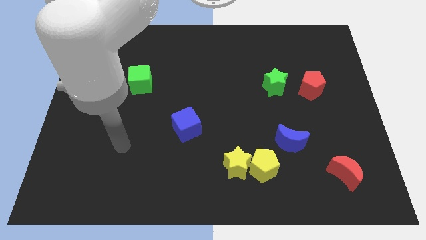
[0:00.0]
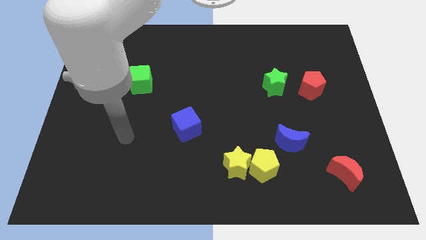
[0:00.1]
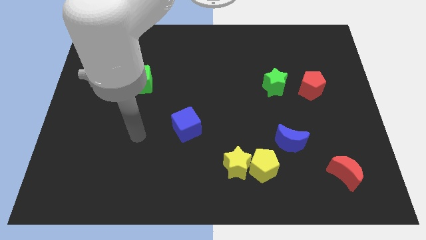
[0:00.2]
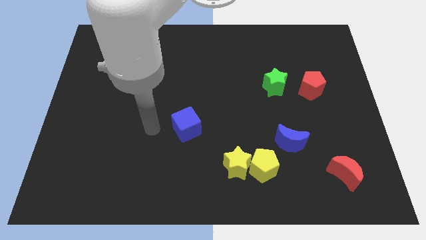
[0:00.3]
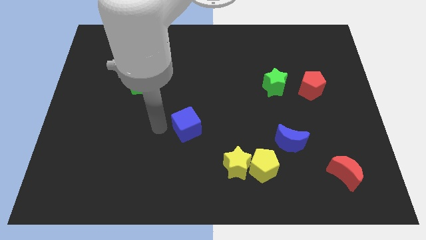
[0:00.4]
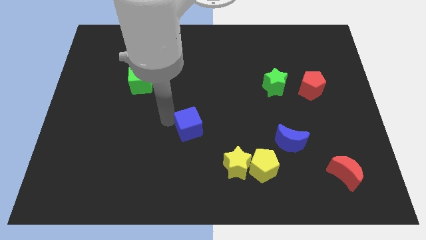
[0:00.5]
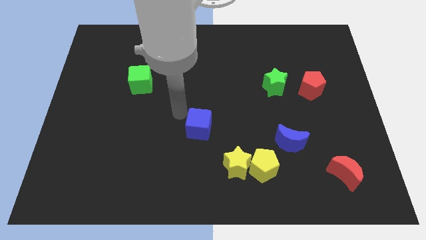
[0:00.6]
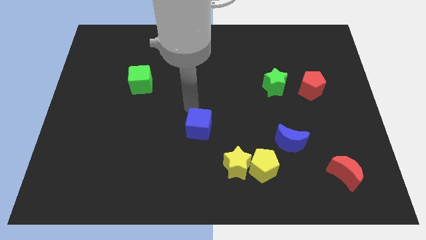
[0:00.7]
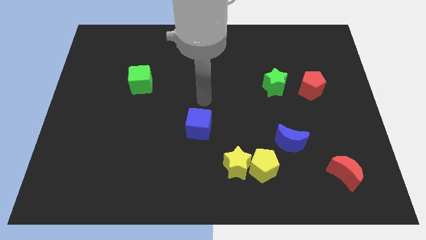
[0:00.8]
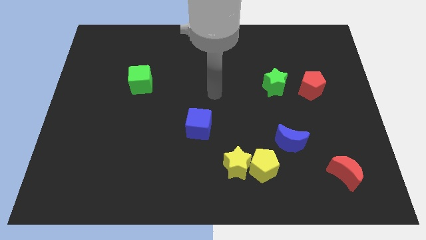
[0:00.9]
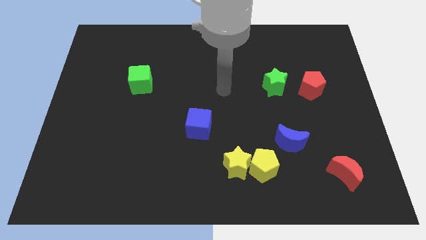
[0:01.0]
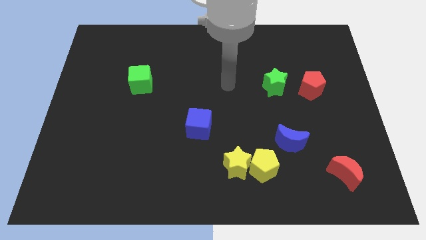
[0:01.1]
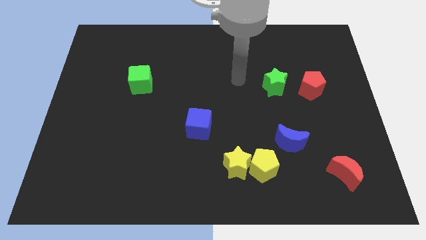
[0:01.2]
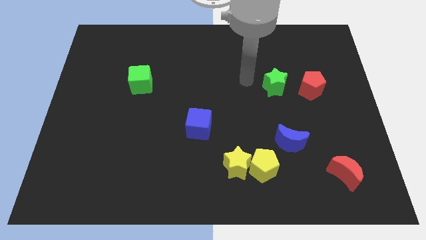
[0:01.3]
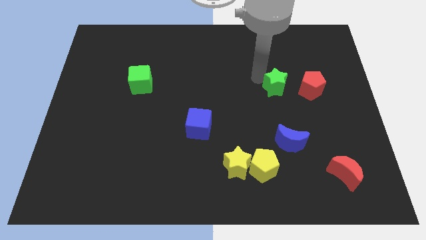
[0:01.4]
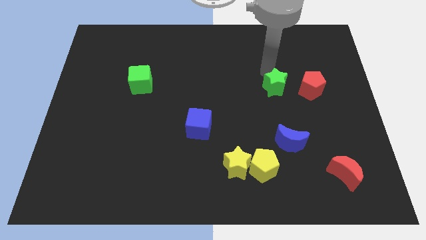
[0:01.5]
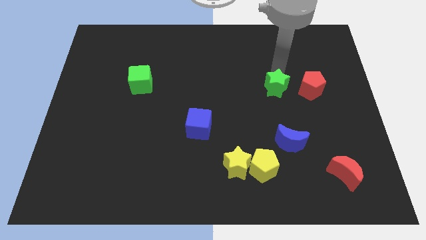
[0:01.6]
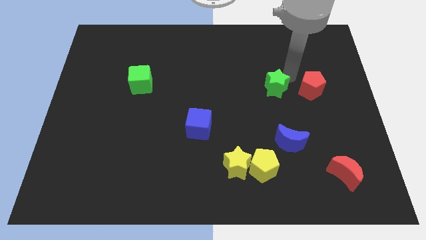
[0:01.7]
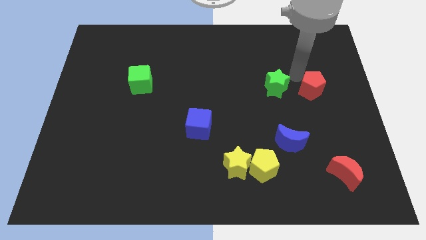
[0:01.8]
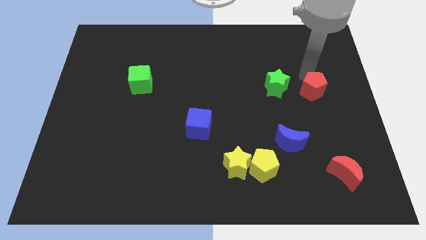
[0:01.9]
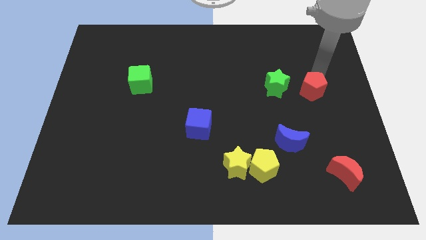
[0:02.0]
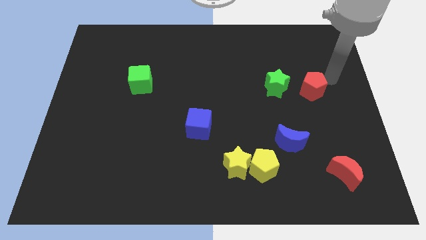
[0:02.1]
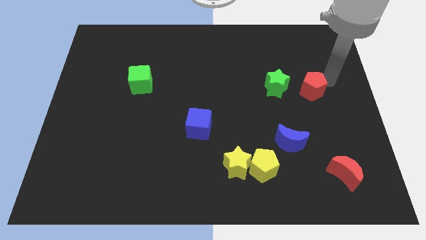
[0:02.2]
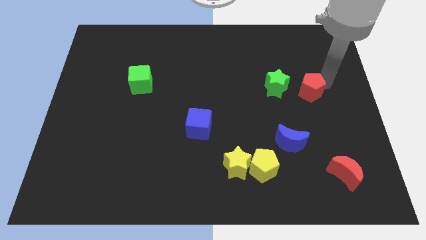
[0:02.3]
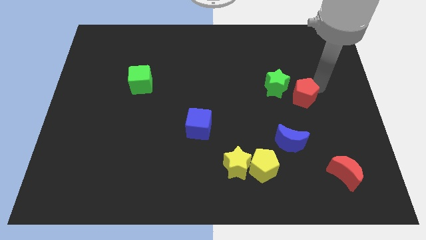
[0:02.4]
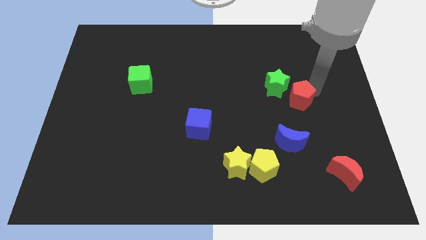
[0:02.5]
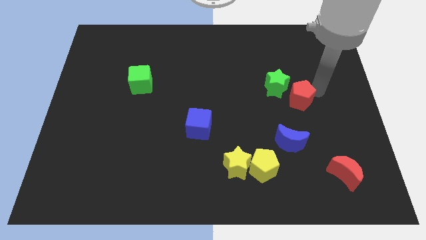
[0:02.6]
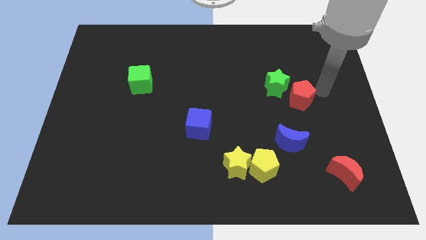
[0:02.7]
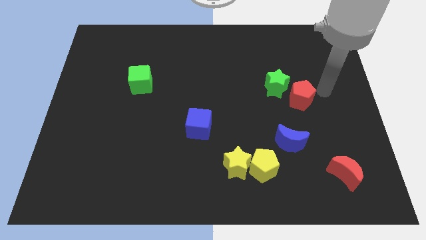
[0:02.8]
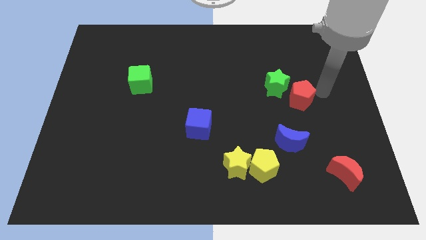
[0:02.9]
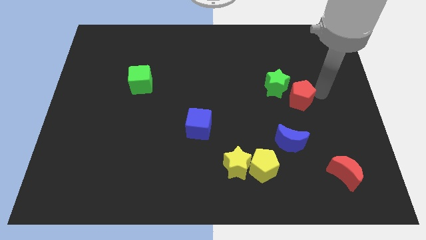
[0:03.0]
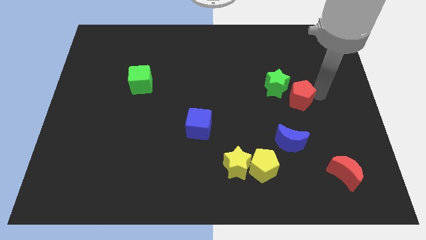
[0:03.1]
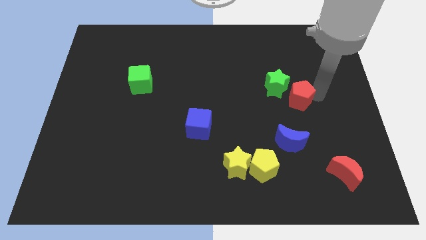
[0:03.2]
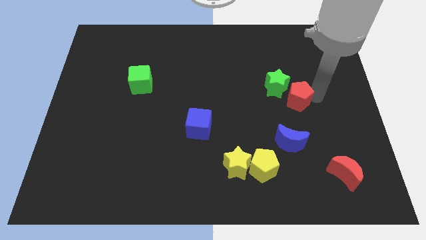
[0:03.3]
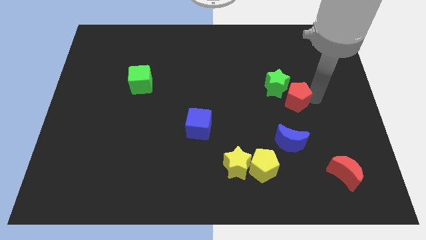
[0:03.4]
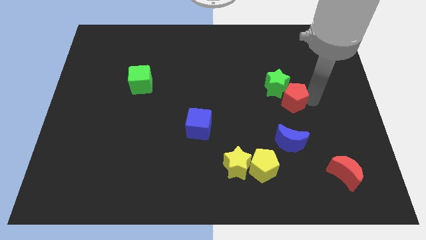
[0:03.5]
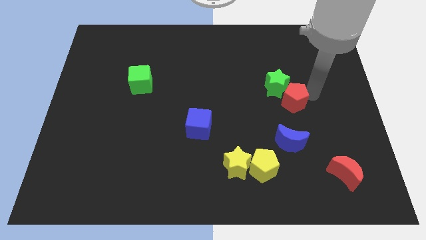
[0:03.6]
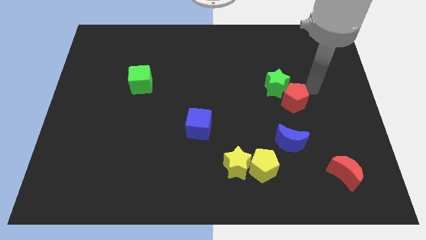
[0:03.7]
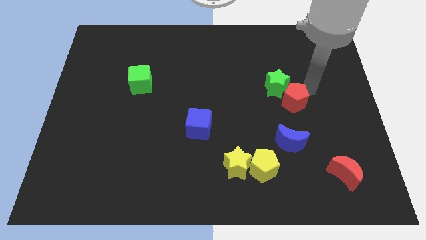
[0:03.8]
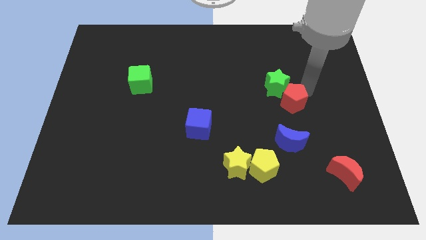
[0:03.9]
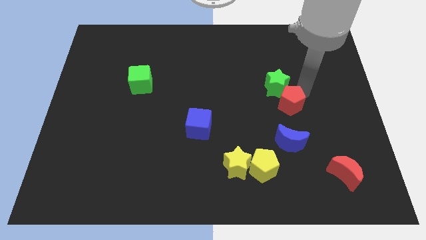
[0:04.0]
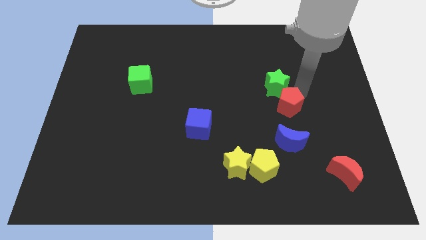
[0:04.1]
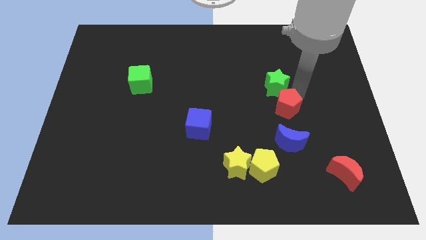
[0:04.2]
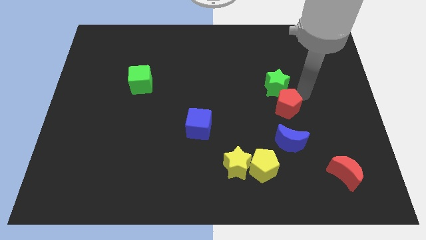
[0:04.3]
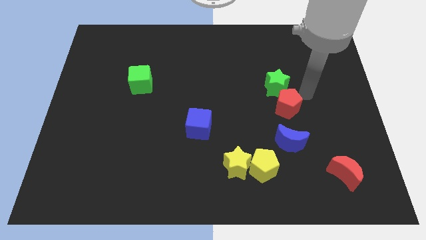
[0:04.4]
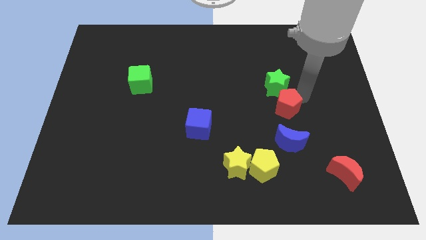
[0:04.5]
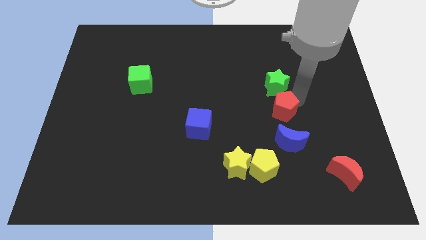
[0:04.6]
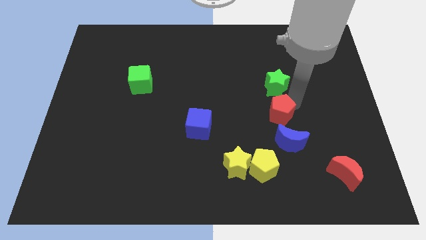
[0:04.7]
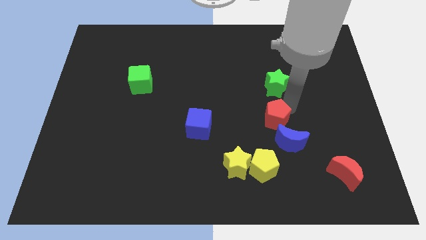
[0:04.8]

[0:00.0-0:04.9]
push the red pentagon above the yellow pentagon

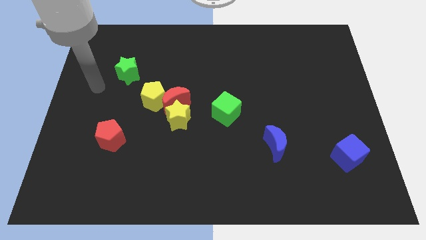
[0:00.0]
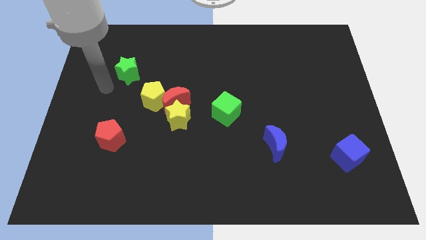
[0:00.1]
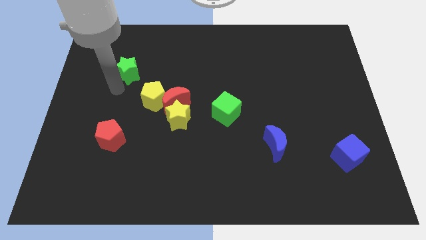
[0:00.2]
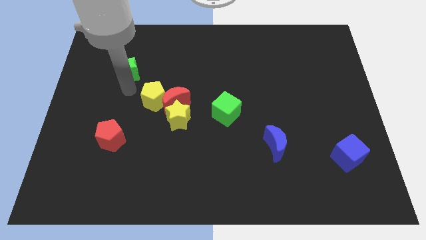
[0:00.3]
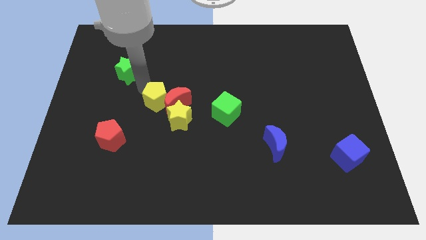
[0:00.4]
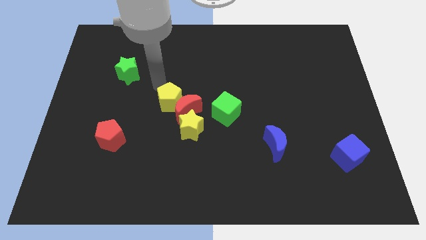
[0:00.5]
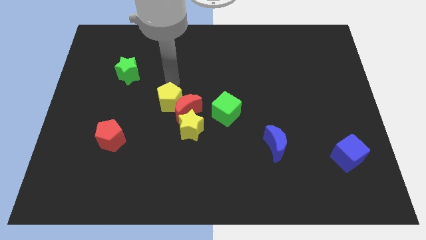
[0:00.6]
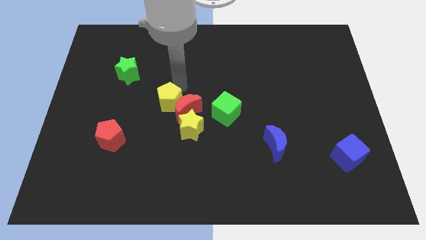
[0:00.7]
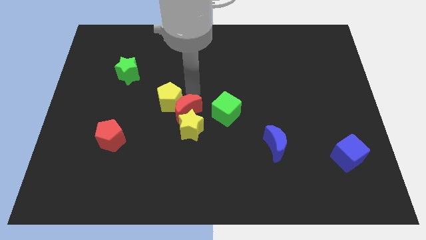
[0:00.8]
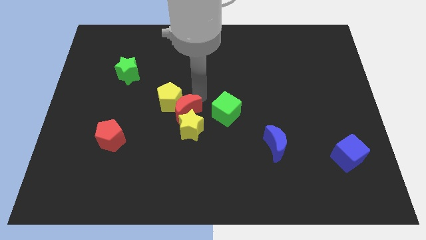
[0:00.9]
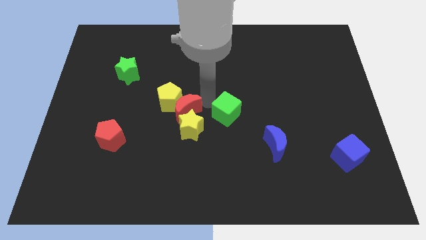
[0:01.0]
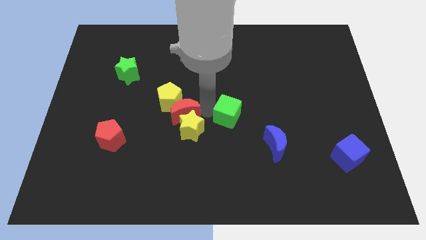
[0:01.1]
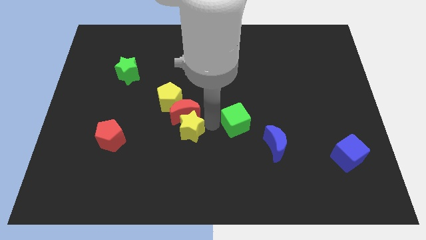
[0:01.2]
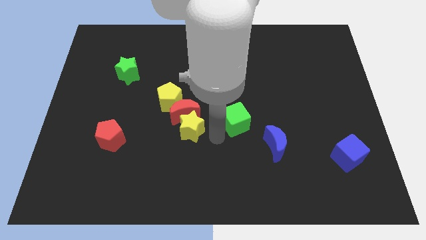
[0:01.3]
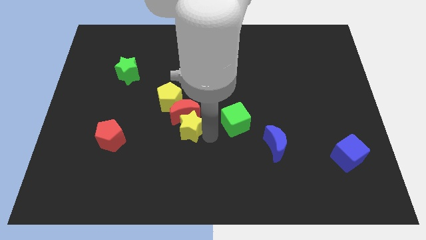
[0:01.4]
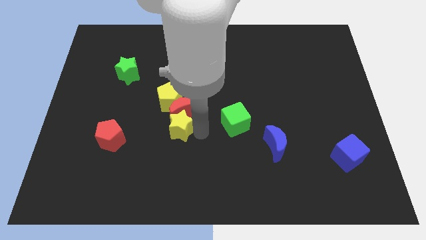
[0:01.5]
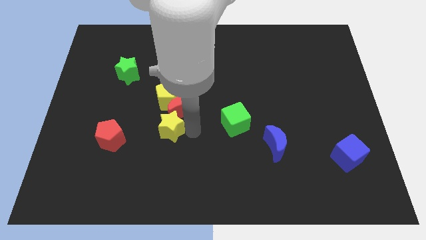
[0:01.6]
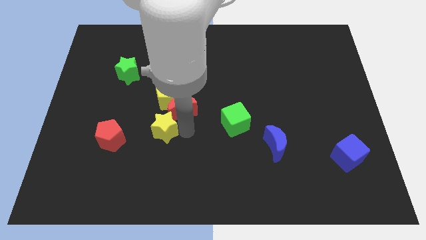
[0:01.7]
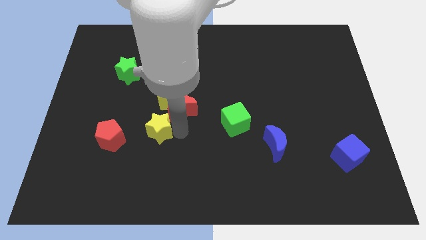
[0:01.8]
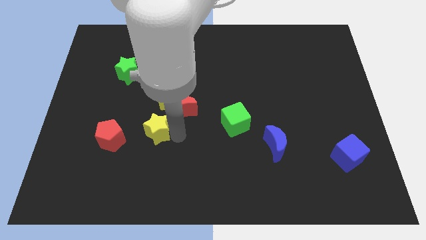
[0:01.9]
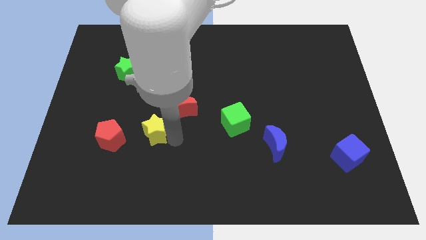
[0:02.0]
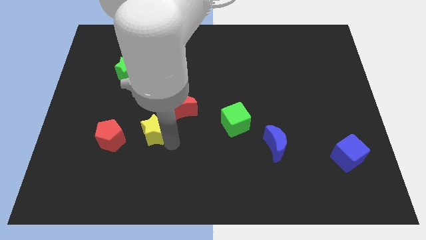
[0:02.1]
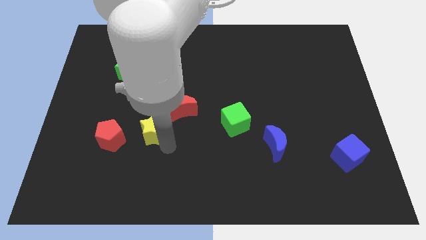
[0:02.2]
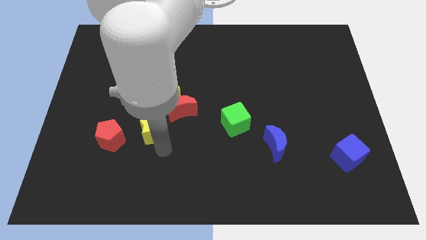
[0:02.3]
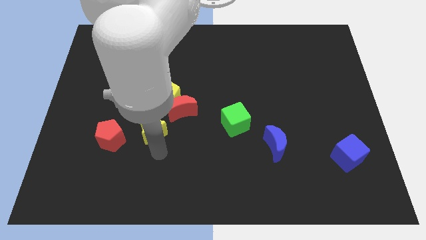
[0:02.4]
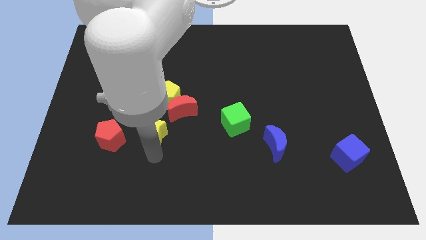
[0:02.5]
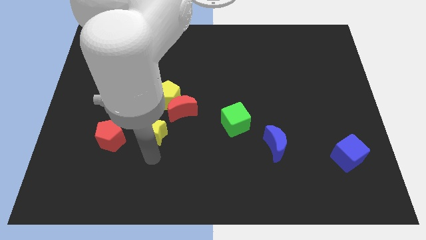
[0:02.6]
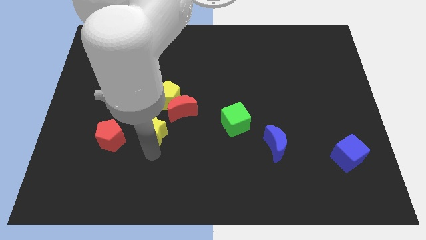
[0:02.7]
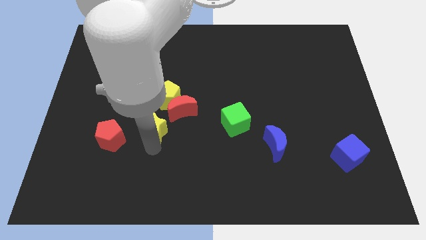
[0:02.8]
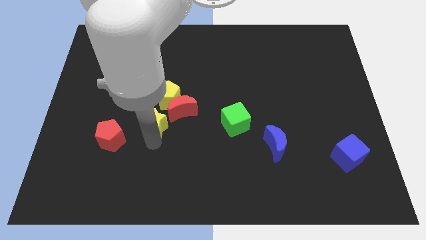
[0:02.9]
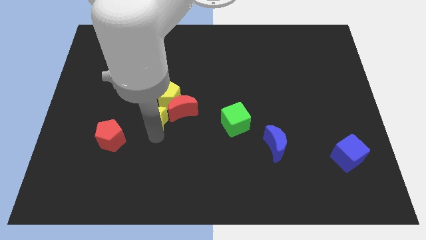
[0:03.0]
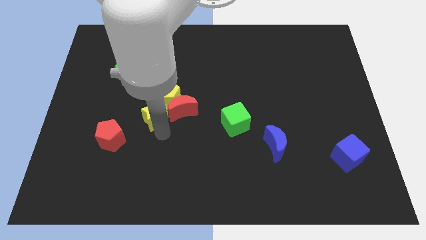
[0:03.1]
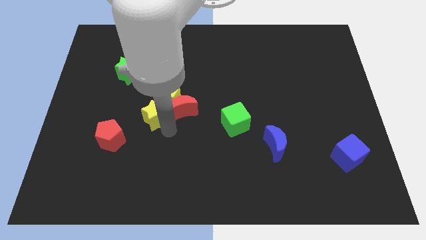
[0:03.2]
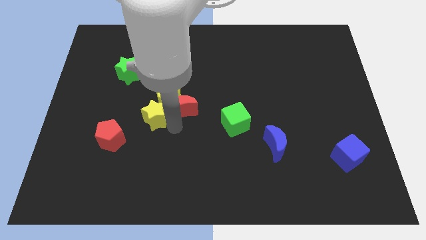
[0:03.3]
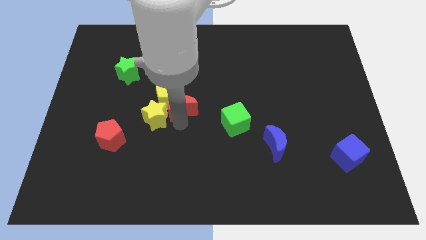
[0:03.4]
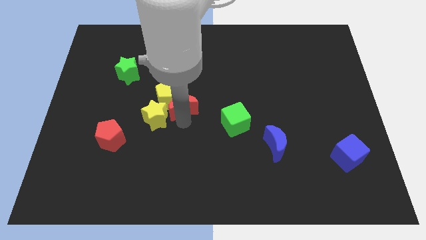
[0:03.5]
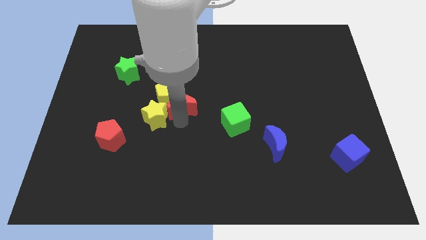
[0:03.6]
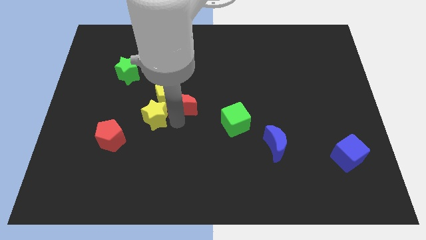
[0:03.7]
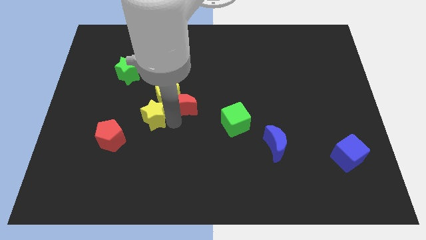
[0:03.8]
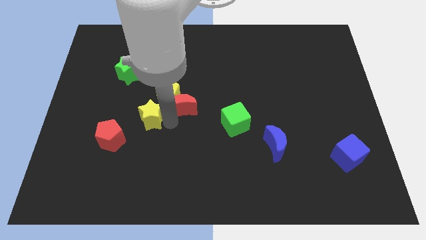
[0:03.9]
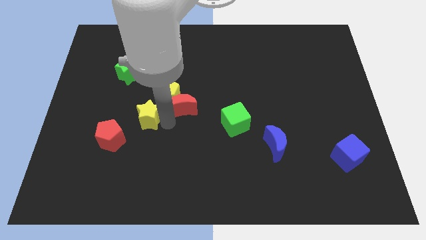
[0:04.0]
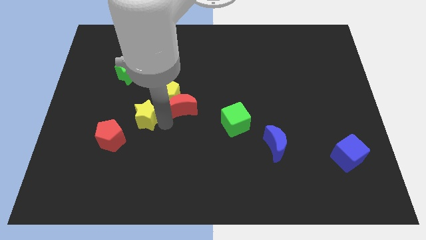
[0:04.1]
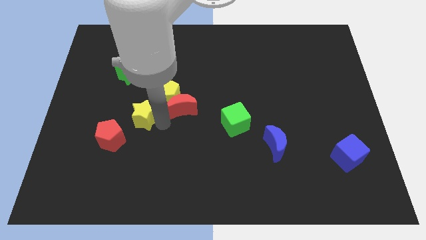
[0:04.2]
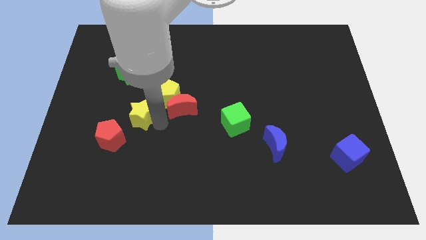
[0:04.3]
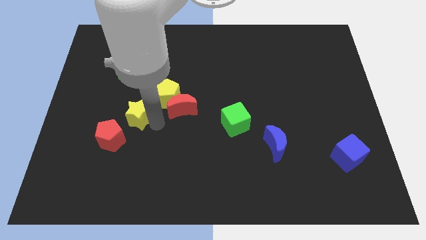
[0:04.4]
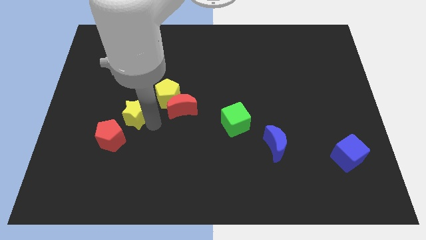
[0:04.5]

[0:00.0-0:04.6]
put the yellow star to the top of the red pentagon
